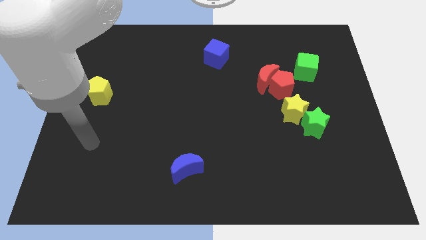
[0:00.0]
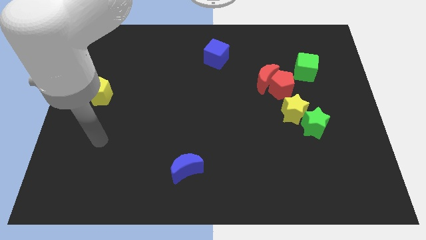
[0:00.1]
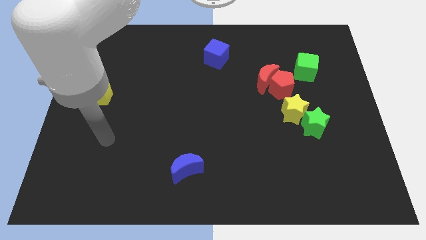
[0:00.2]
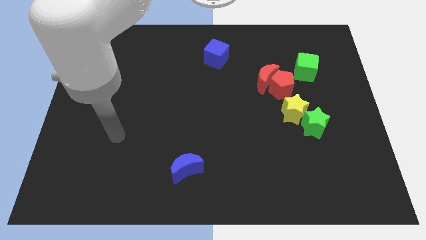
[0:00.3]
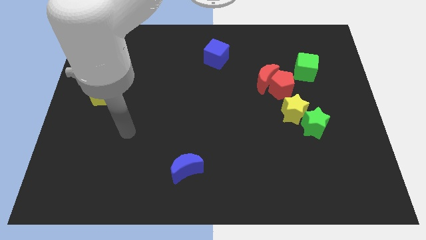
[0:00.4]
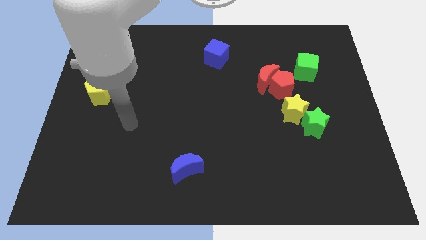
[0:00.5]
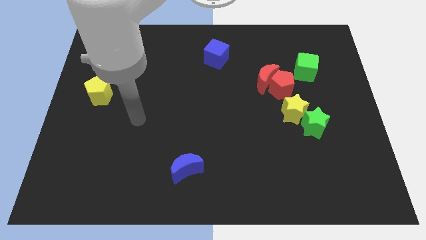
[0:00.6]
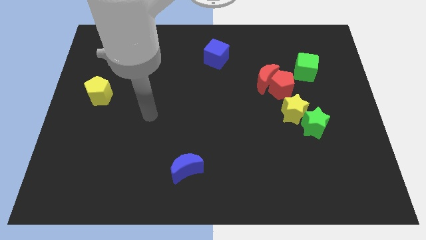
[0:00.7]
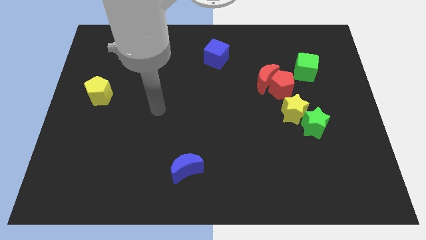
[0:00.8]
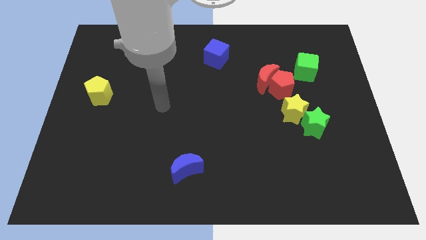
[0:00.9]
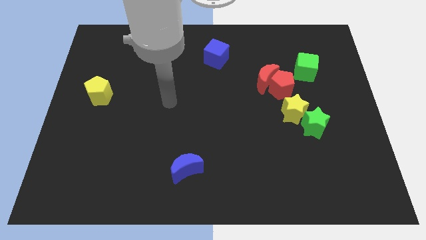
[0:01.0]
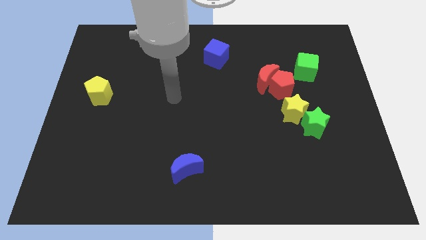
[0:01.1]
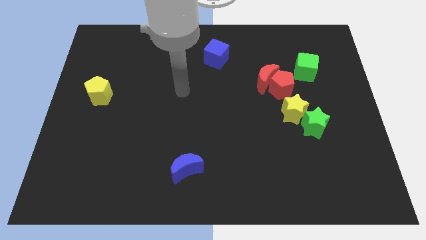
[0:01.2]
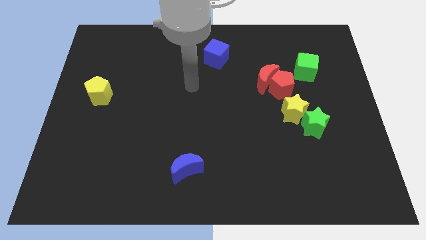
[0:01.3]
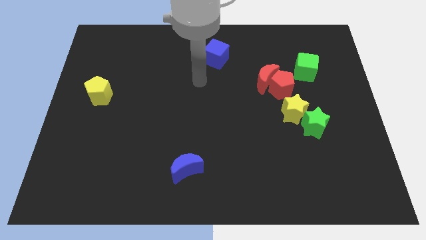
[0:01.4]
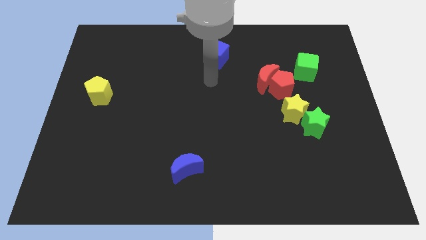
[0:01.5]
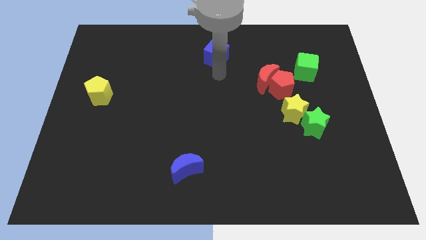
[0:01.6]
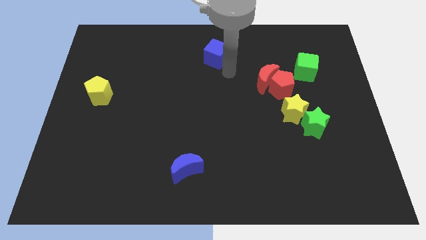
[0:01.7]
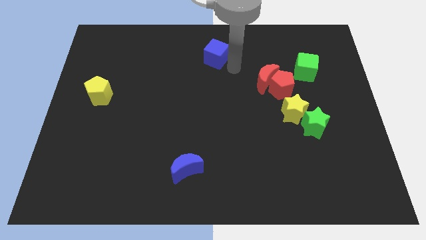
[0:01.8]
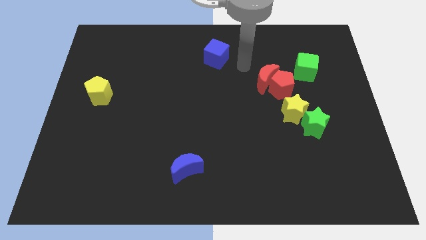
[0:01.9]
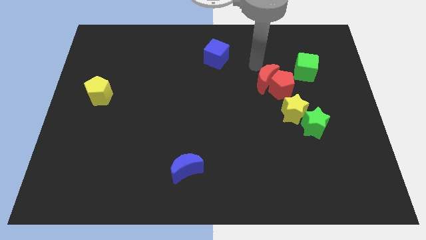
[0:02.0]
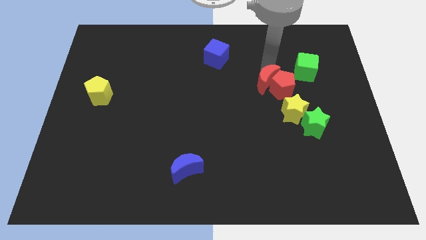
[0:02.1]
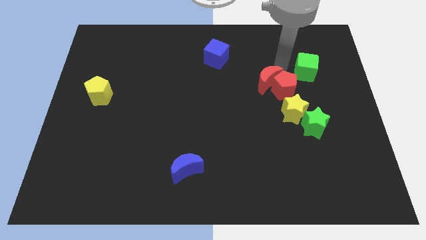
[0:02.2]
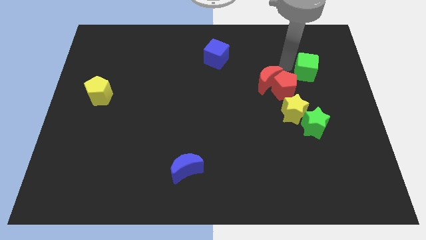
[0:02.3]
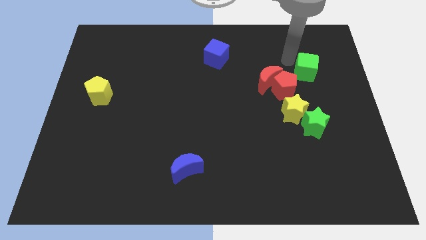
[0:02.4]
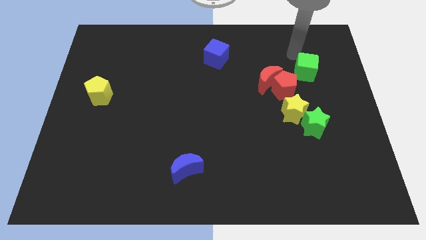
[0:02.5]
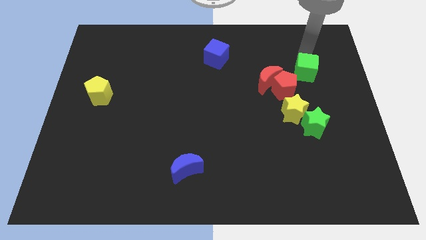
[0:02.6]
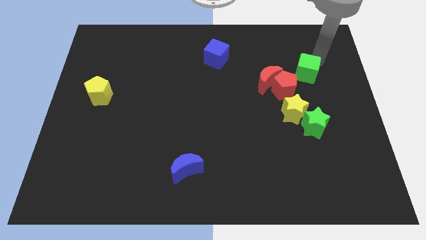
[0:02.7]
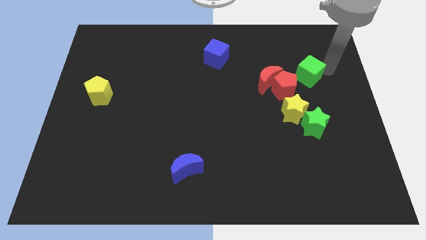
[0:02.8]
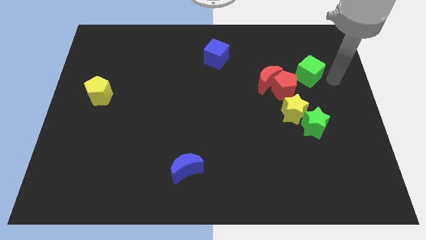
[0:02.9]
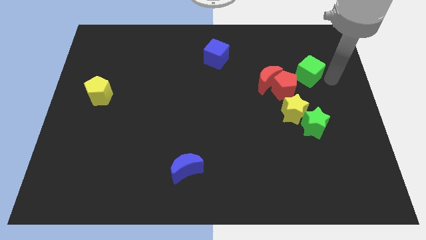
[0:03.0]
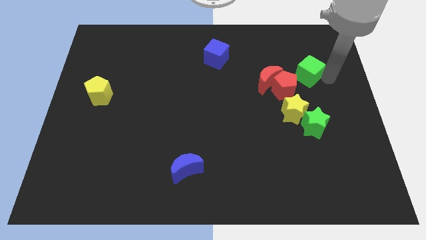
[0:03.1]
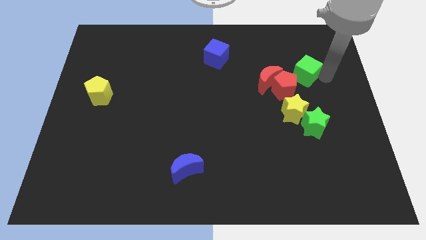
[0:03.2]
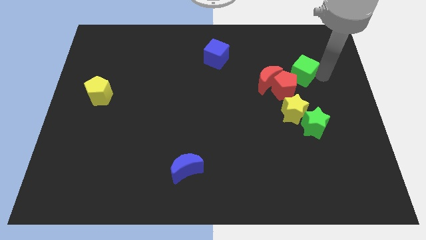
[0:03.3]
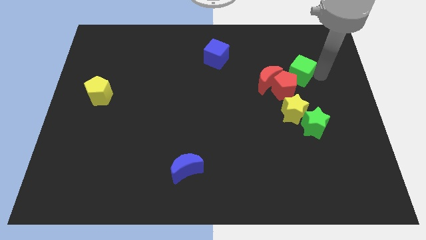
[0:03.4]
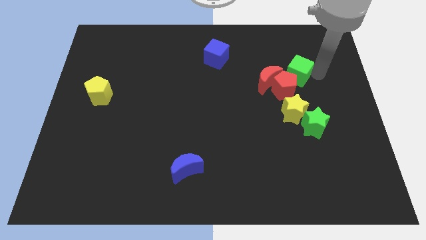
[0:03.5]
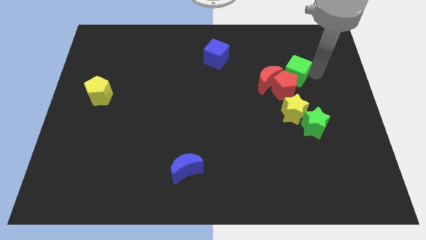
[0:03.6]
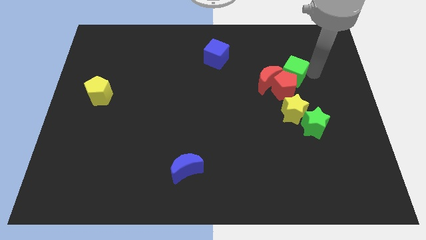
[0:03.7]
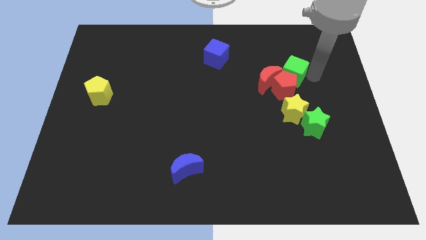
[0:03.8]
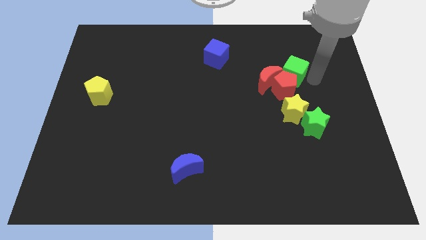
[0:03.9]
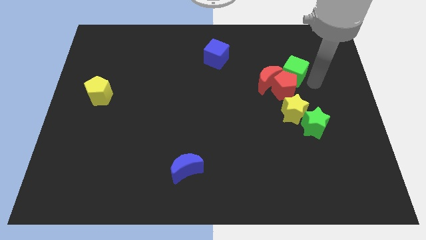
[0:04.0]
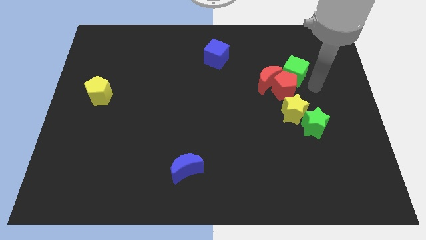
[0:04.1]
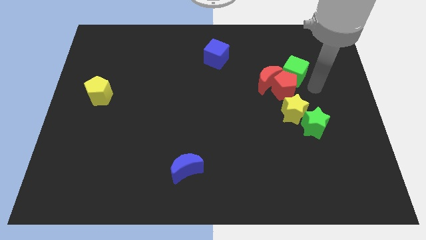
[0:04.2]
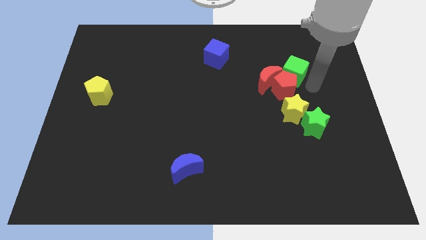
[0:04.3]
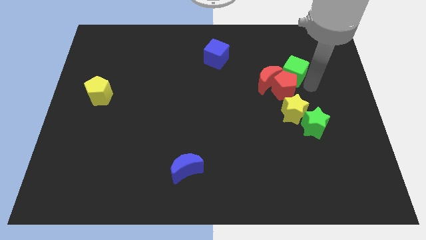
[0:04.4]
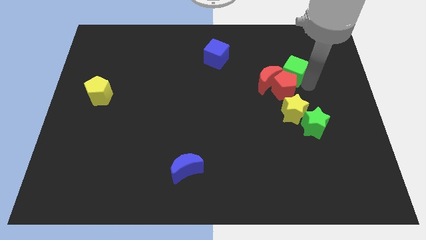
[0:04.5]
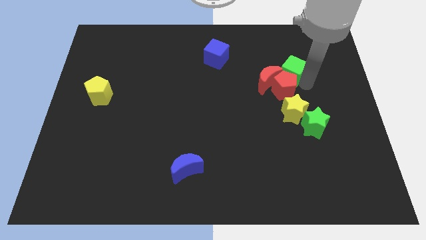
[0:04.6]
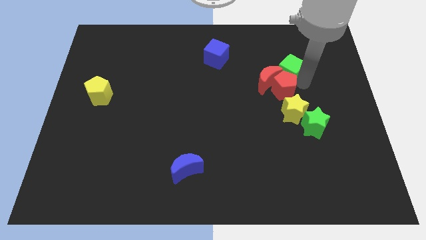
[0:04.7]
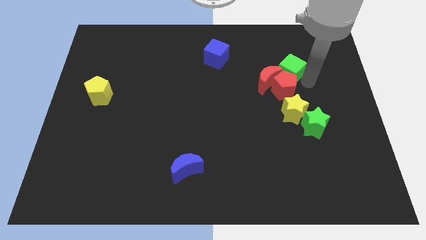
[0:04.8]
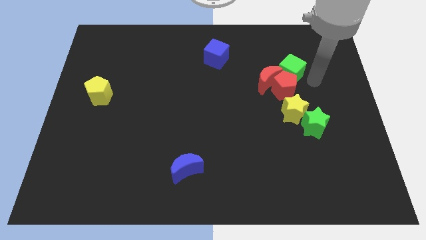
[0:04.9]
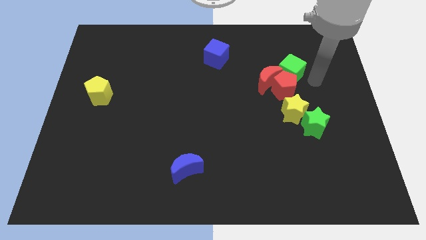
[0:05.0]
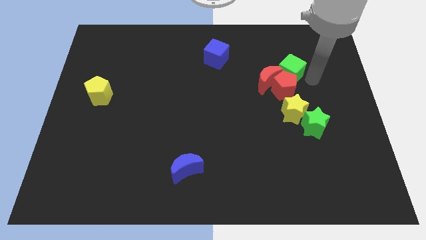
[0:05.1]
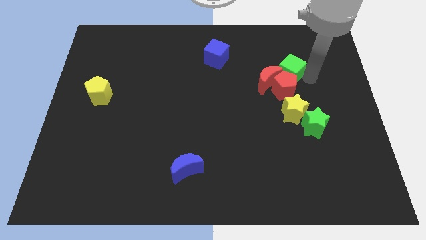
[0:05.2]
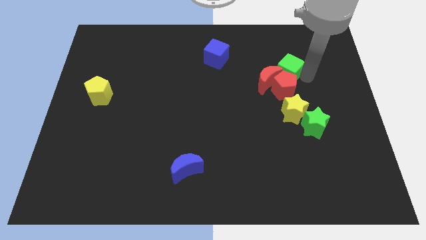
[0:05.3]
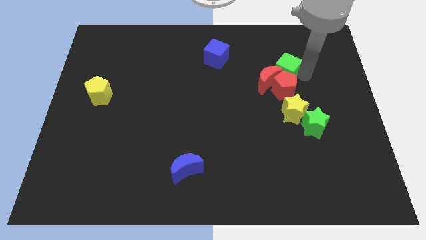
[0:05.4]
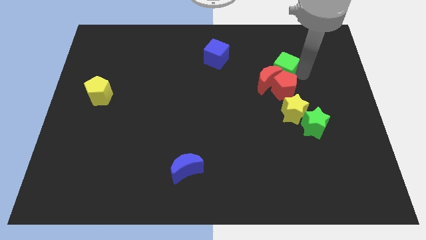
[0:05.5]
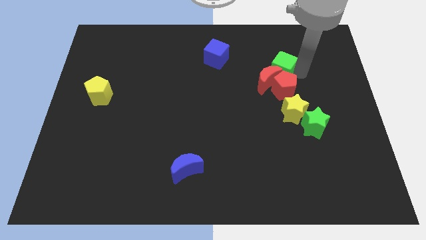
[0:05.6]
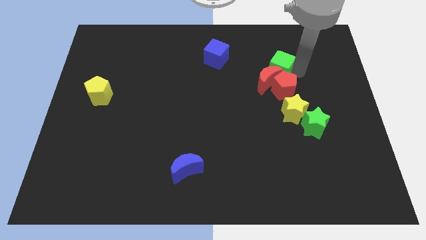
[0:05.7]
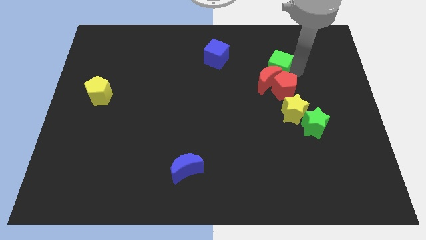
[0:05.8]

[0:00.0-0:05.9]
push the green cube a bit left

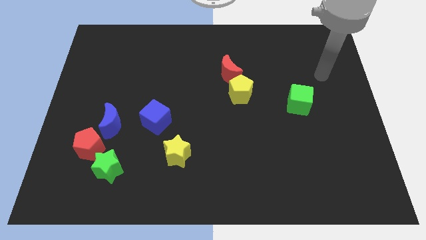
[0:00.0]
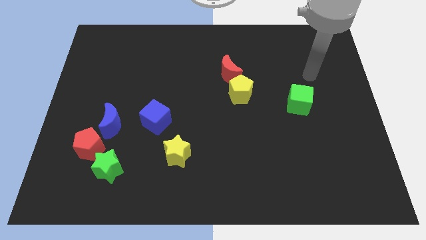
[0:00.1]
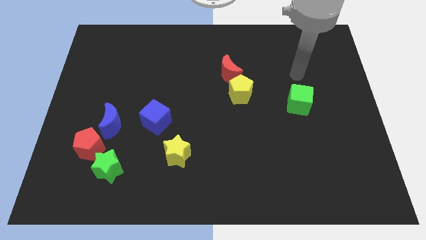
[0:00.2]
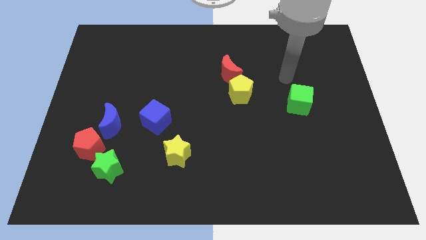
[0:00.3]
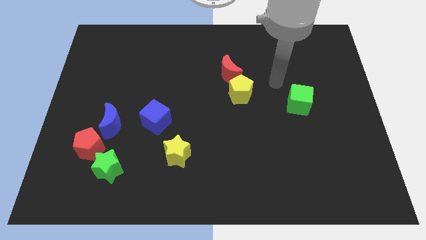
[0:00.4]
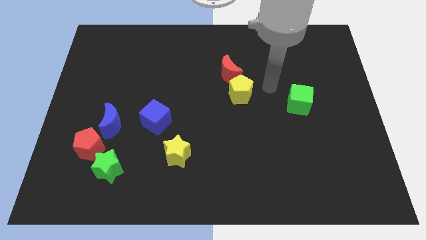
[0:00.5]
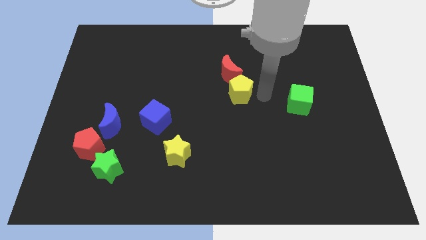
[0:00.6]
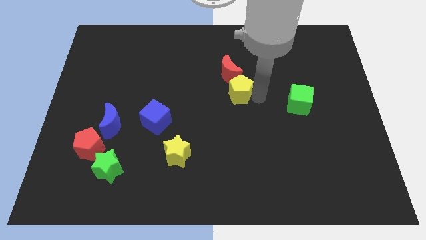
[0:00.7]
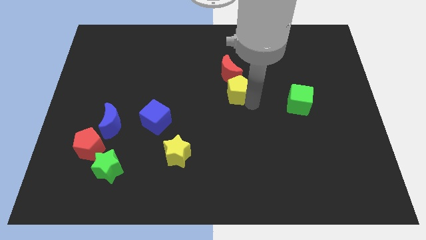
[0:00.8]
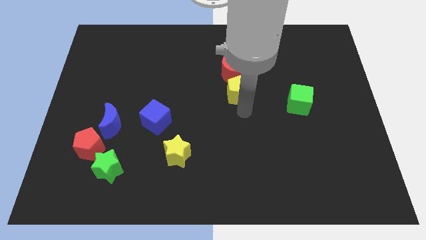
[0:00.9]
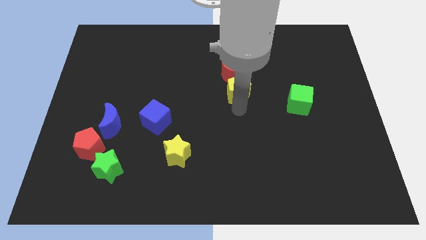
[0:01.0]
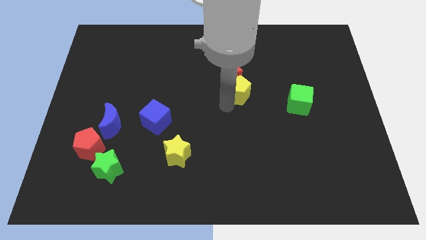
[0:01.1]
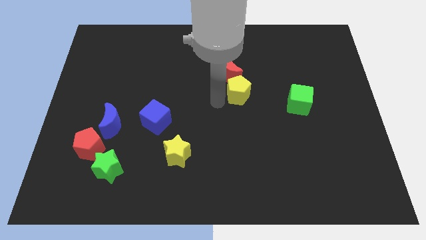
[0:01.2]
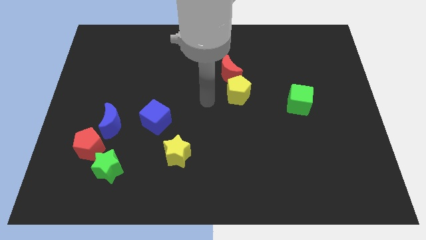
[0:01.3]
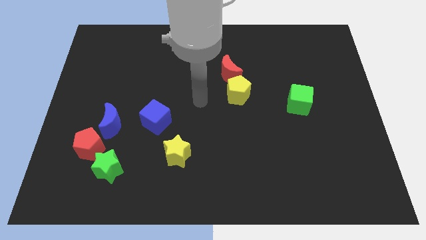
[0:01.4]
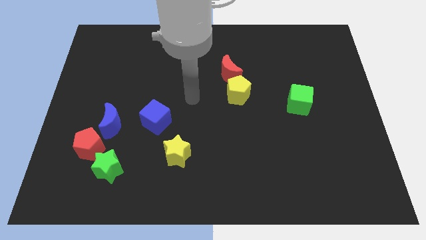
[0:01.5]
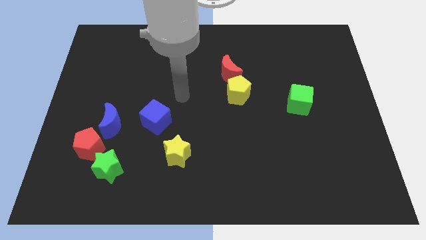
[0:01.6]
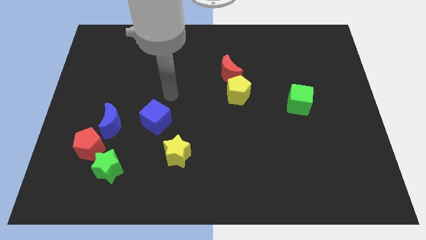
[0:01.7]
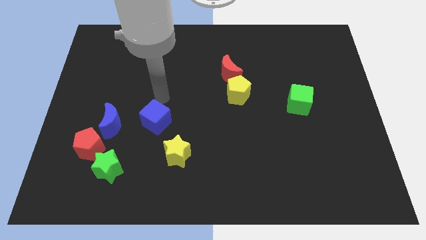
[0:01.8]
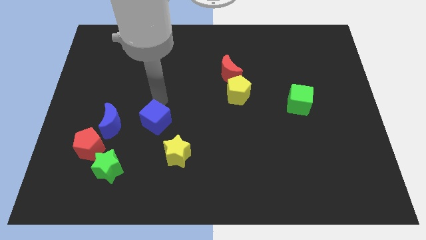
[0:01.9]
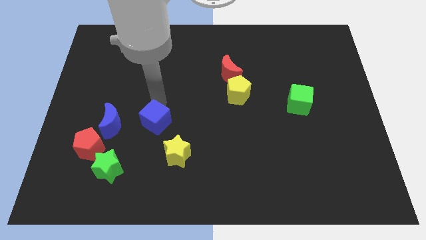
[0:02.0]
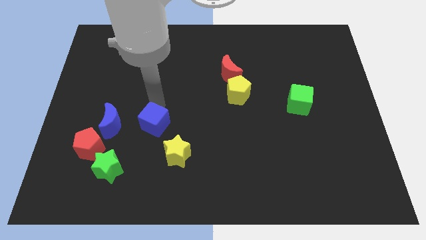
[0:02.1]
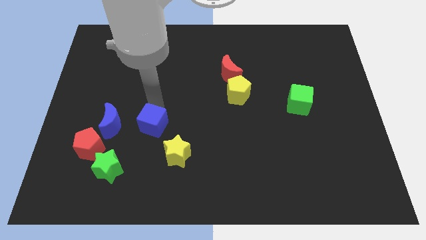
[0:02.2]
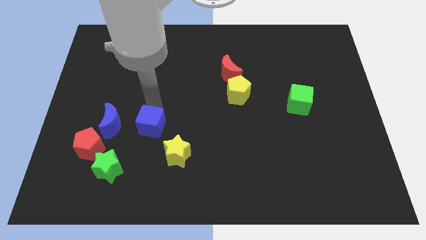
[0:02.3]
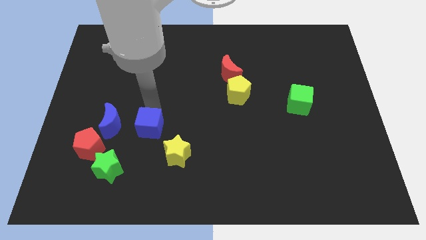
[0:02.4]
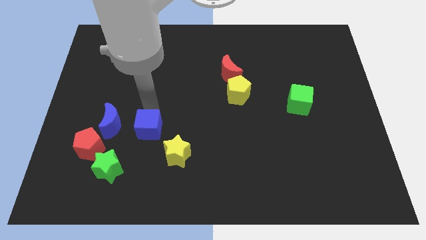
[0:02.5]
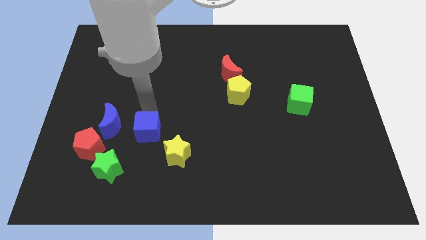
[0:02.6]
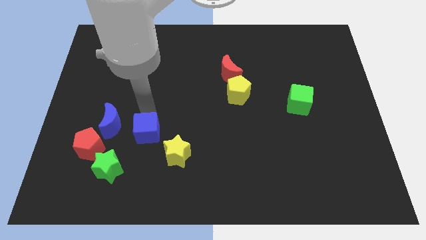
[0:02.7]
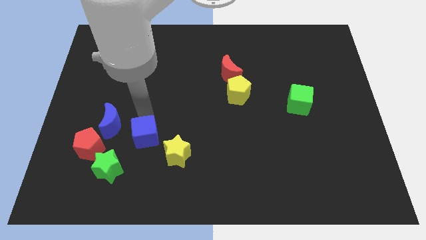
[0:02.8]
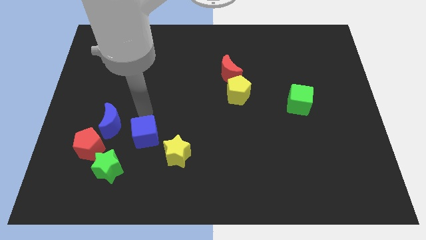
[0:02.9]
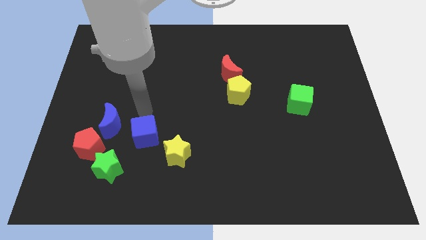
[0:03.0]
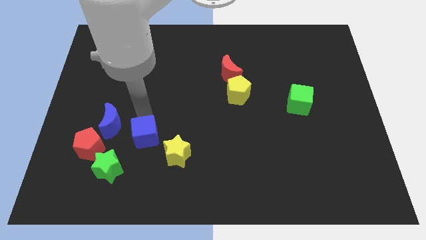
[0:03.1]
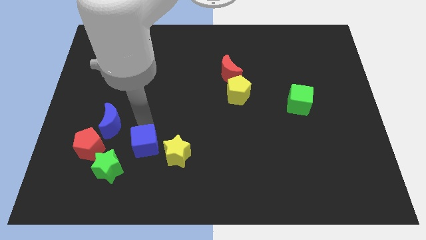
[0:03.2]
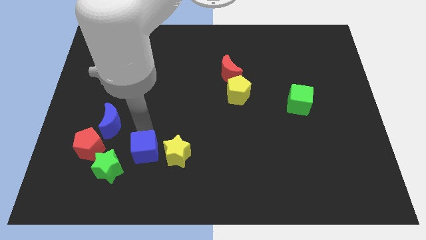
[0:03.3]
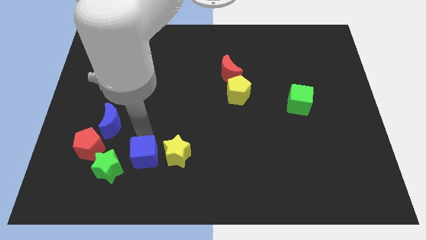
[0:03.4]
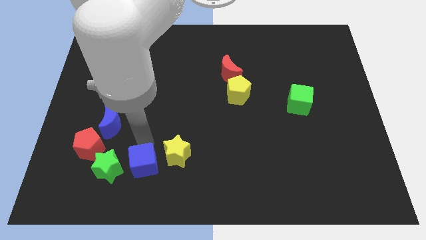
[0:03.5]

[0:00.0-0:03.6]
push the blue cube down and then to the left a little
